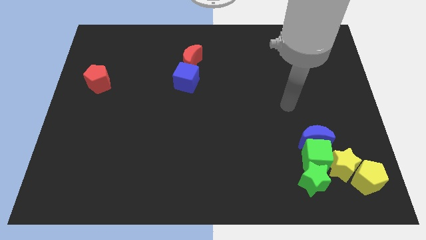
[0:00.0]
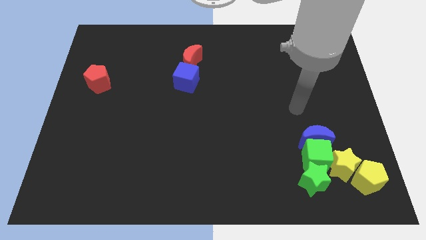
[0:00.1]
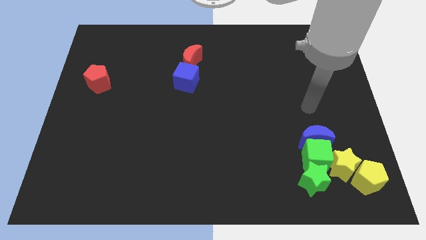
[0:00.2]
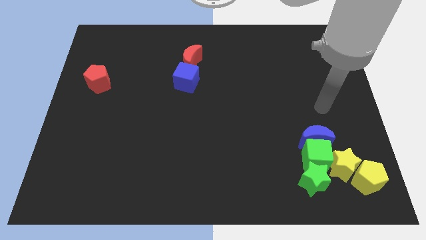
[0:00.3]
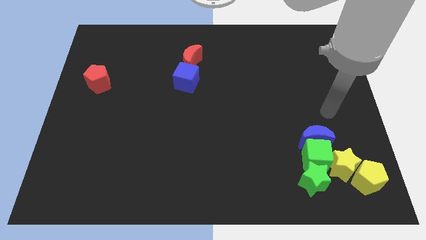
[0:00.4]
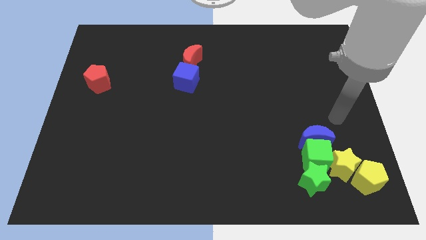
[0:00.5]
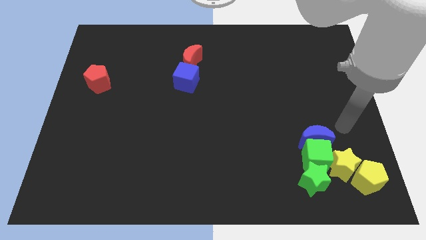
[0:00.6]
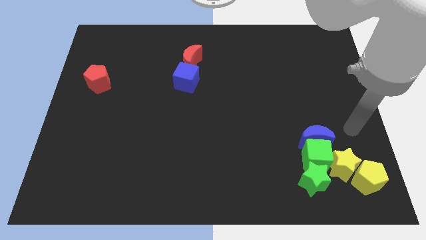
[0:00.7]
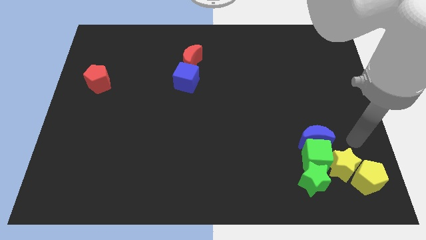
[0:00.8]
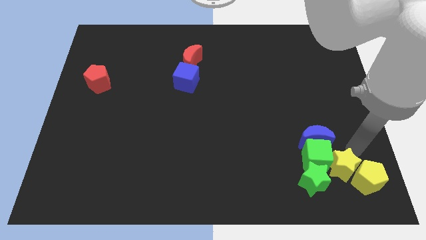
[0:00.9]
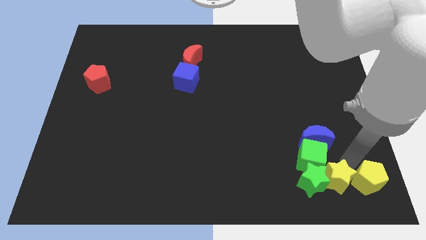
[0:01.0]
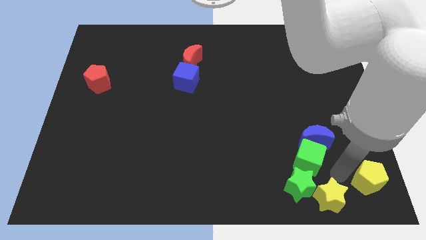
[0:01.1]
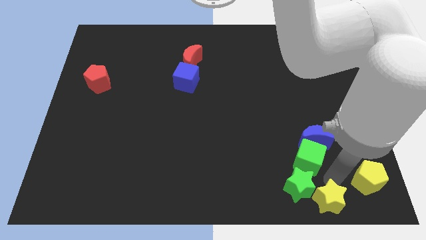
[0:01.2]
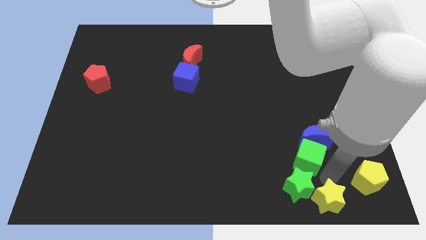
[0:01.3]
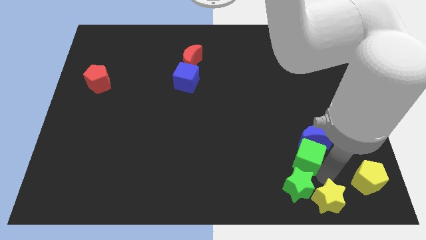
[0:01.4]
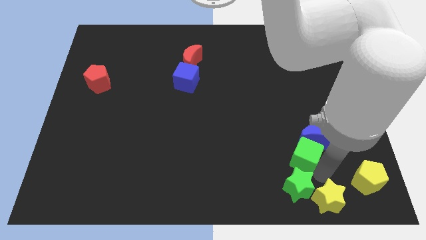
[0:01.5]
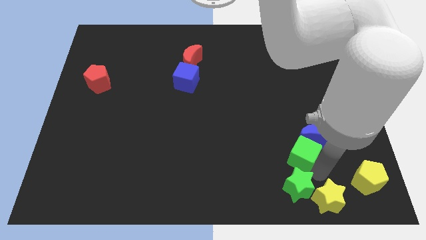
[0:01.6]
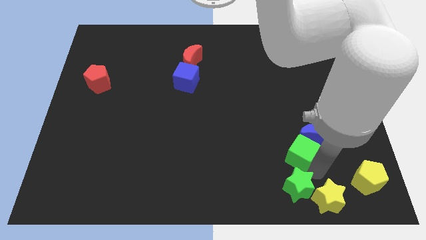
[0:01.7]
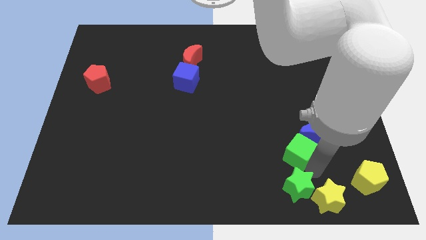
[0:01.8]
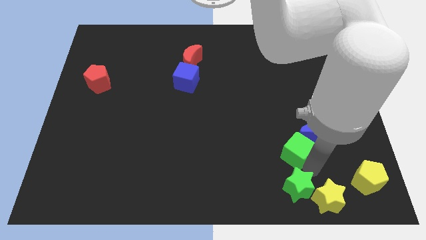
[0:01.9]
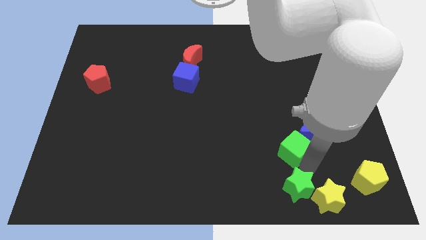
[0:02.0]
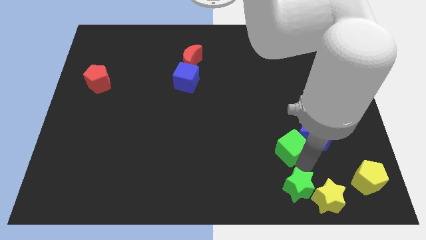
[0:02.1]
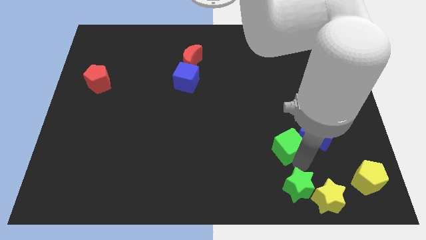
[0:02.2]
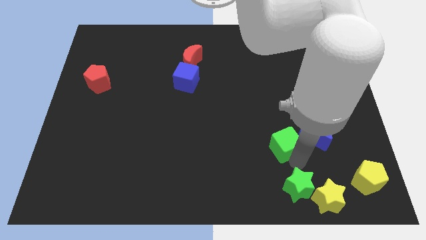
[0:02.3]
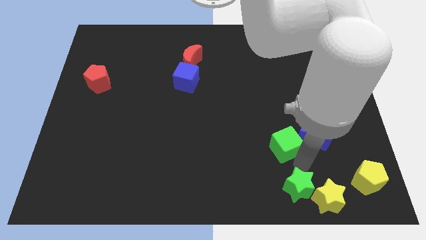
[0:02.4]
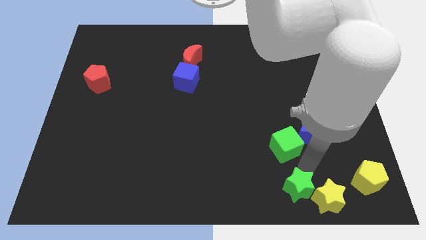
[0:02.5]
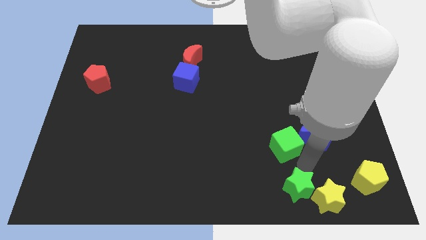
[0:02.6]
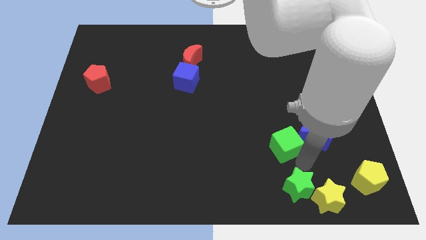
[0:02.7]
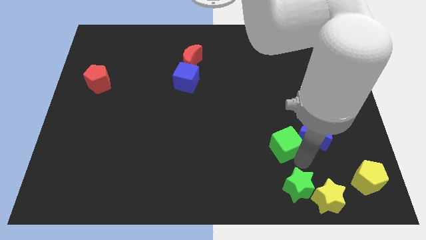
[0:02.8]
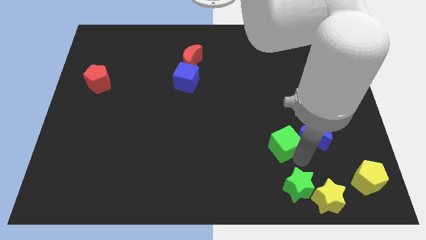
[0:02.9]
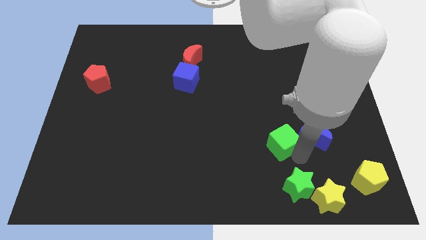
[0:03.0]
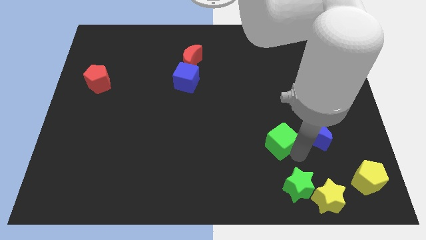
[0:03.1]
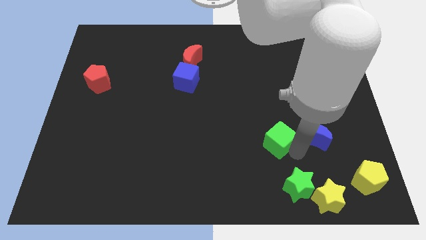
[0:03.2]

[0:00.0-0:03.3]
move the green cube away from the group

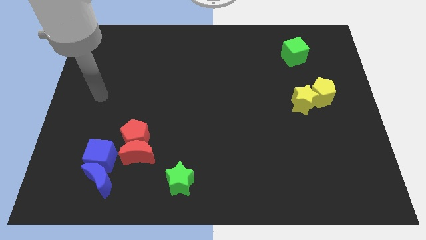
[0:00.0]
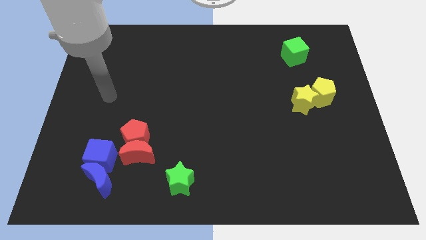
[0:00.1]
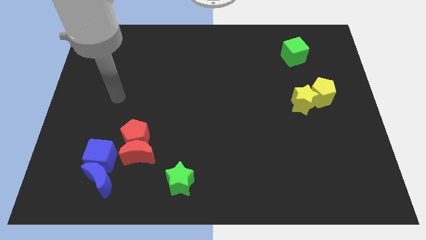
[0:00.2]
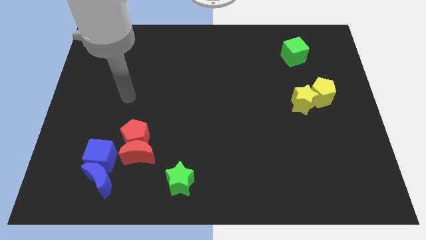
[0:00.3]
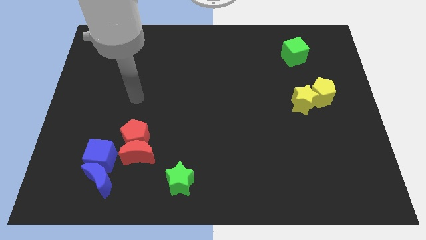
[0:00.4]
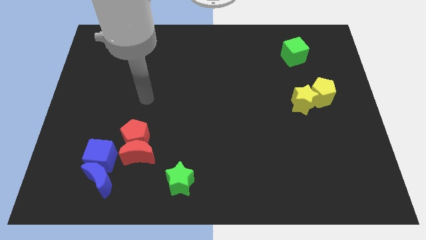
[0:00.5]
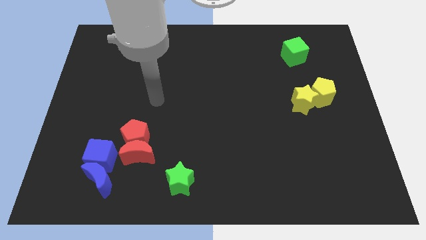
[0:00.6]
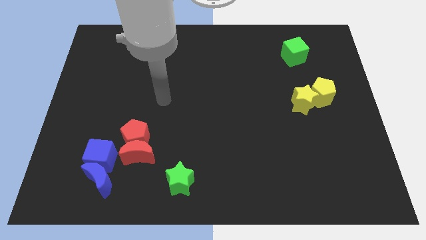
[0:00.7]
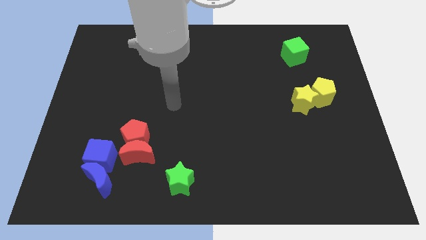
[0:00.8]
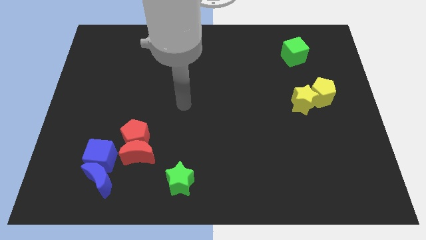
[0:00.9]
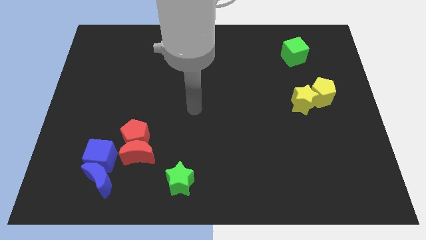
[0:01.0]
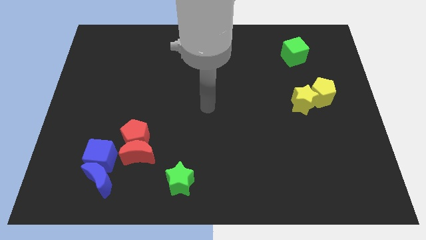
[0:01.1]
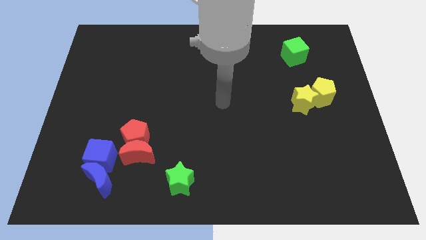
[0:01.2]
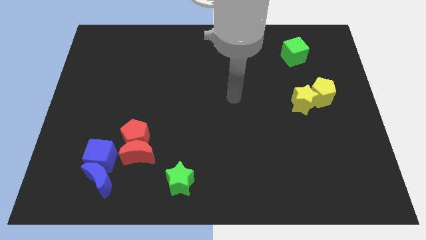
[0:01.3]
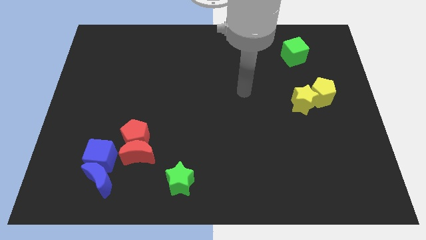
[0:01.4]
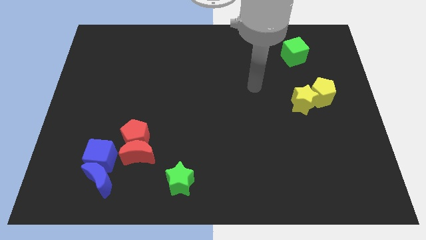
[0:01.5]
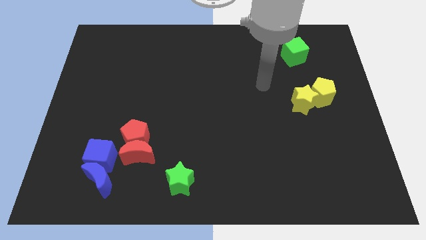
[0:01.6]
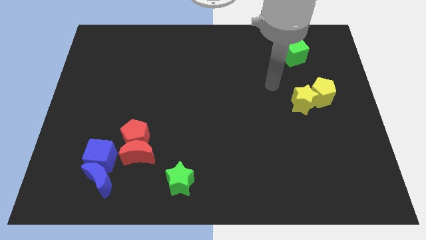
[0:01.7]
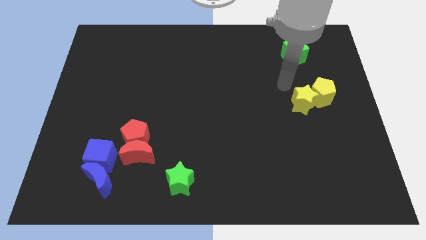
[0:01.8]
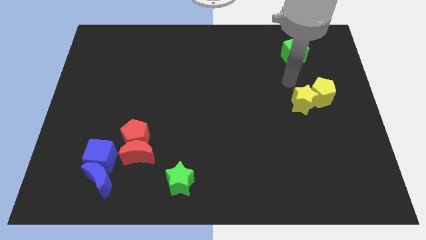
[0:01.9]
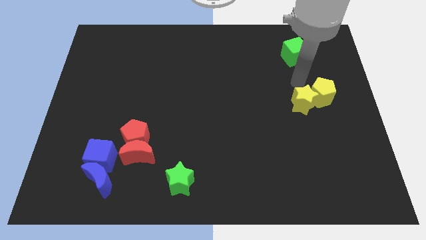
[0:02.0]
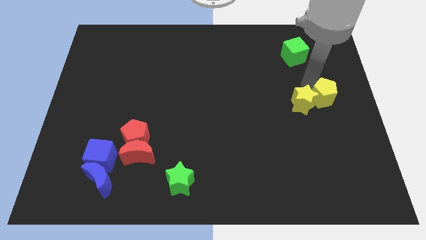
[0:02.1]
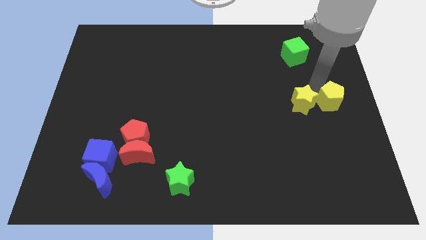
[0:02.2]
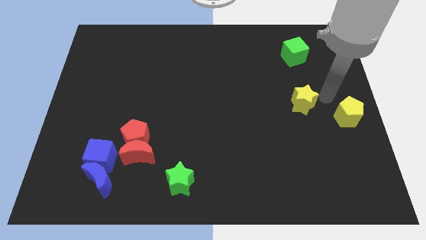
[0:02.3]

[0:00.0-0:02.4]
pull the yellow star apart from the yellow pentagon

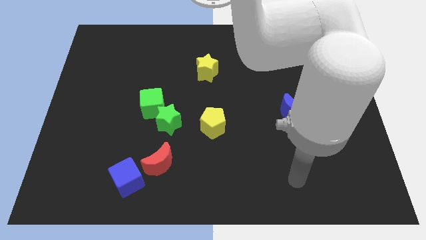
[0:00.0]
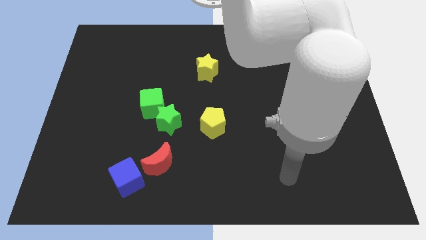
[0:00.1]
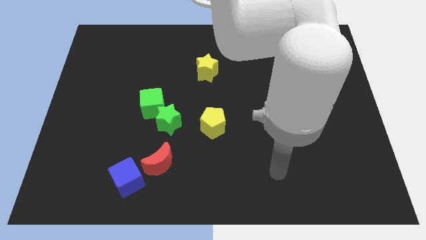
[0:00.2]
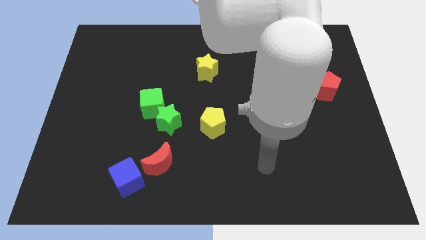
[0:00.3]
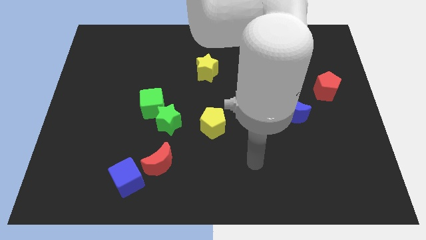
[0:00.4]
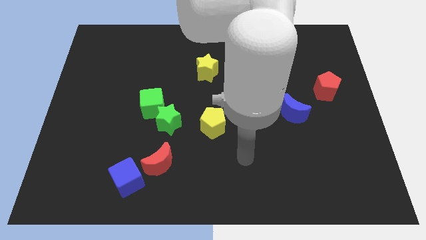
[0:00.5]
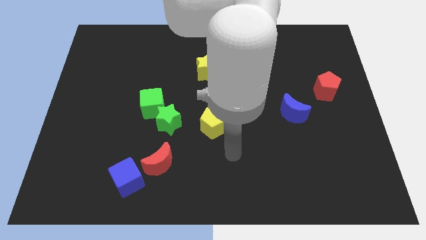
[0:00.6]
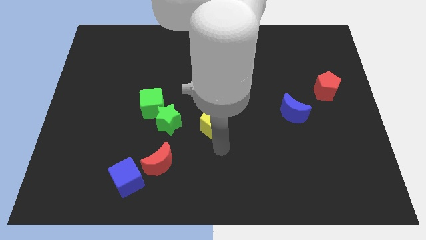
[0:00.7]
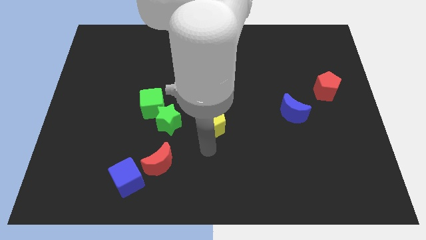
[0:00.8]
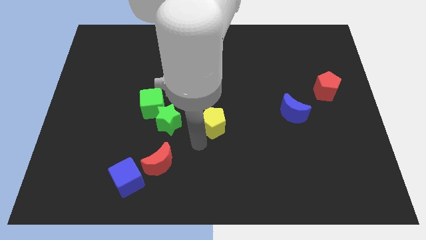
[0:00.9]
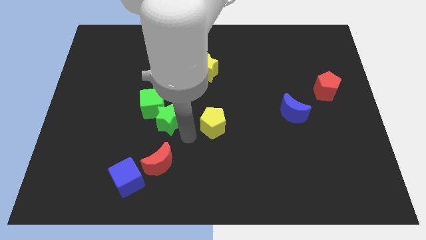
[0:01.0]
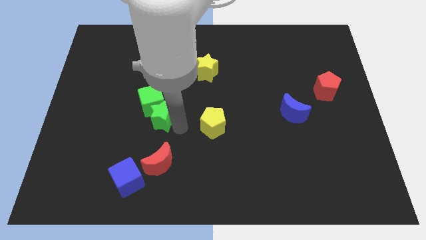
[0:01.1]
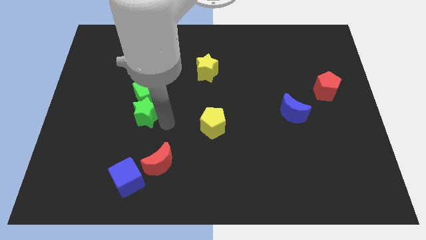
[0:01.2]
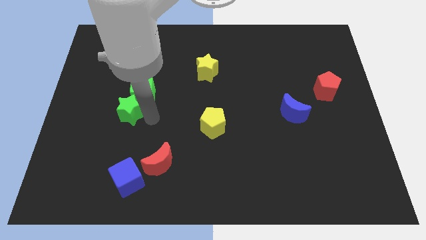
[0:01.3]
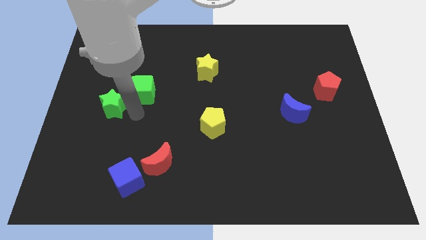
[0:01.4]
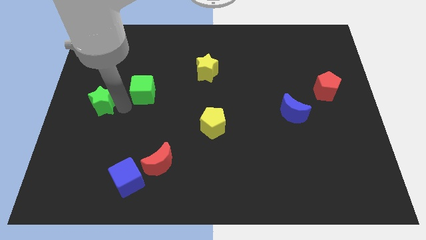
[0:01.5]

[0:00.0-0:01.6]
move the green cube away from the green star

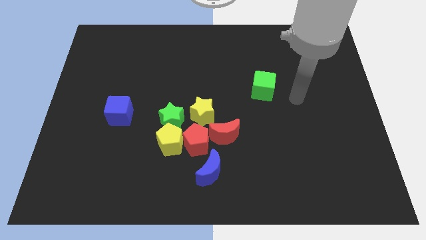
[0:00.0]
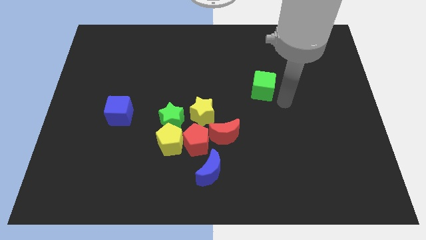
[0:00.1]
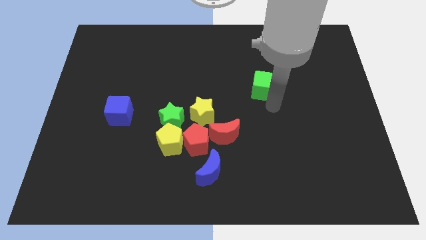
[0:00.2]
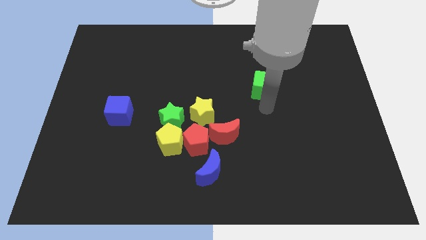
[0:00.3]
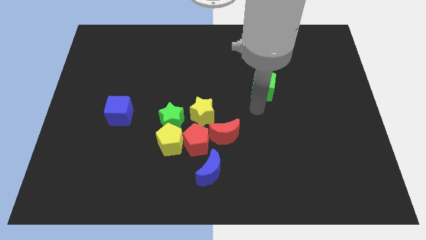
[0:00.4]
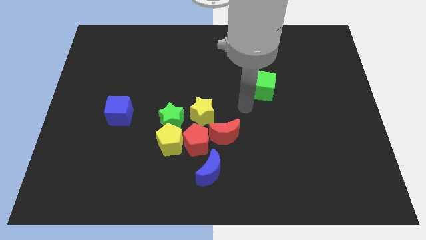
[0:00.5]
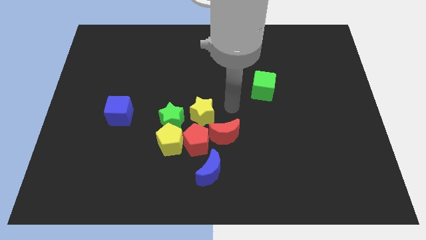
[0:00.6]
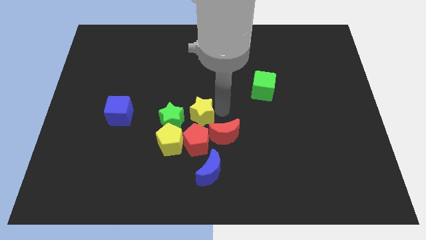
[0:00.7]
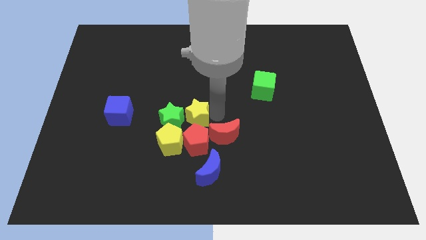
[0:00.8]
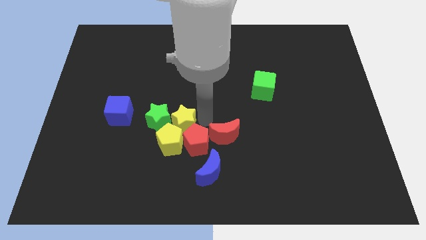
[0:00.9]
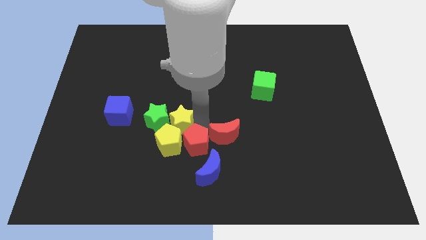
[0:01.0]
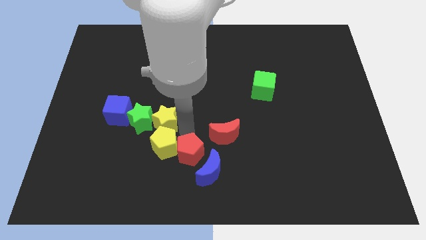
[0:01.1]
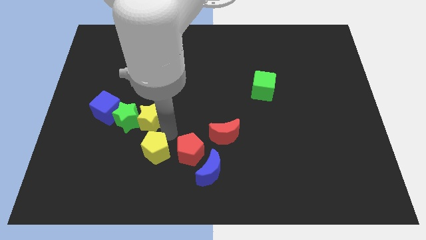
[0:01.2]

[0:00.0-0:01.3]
separate the green star from the yellow pentagon, yellow star, and red pentagon

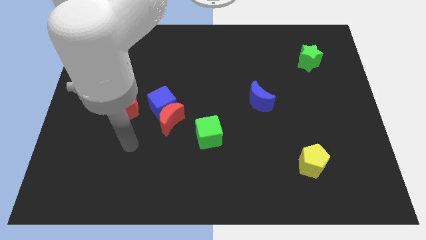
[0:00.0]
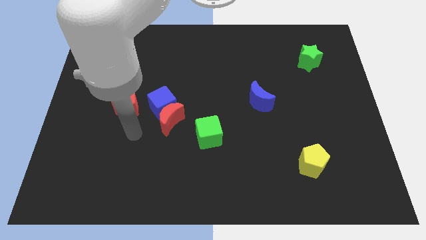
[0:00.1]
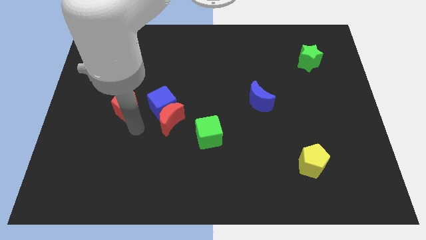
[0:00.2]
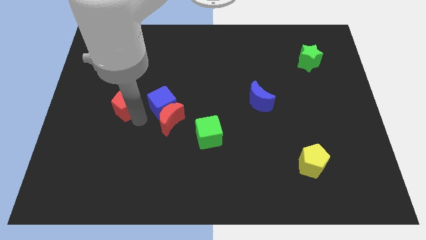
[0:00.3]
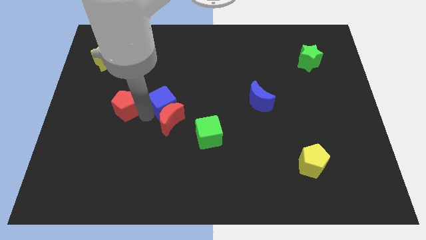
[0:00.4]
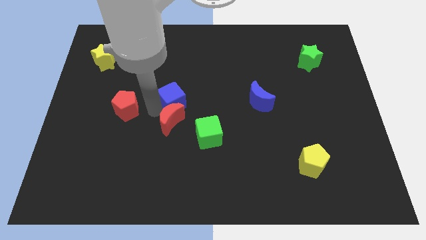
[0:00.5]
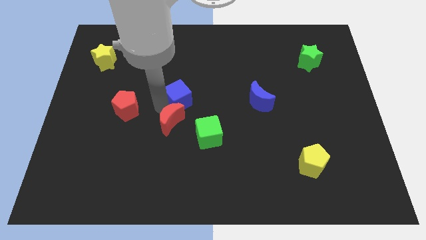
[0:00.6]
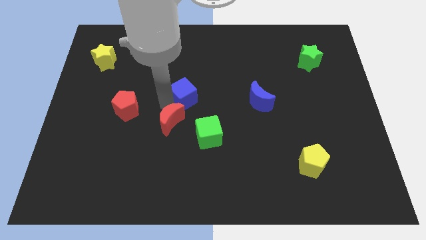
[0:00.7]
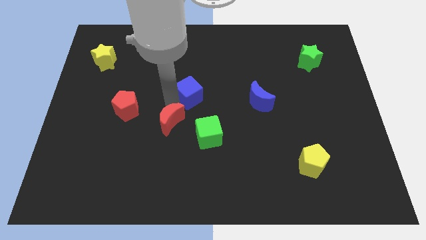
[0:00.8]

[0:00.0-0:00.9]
separate the blue cube from the red moon and red pentagon
